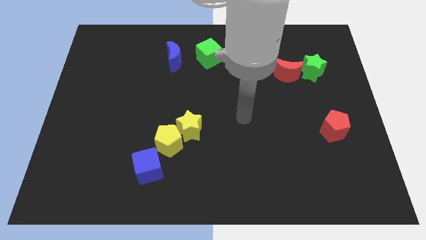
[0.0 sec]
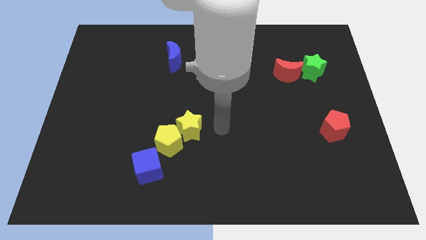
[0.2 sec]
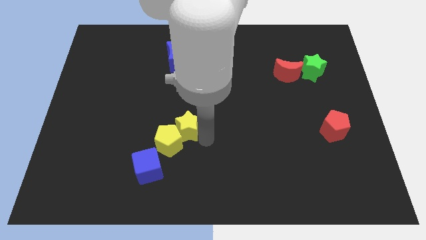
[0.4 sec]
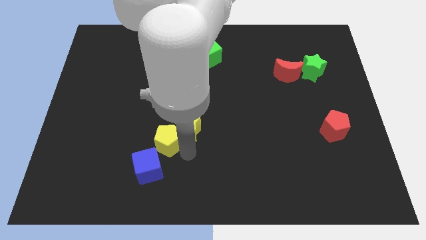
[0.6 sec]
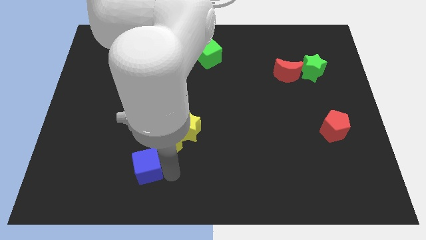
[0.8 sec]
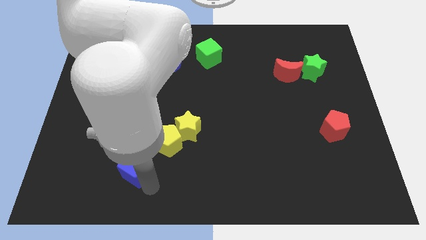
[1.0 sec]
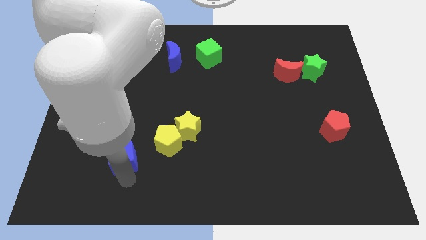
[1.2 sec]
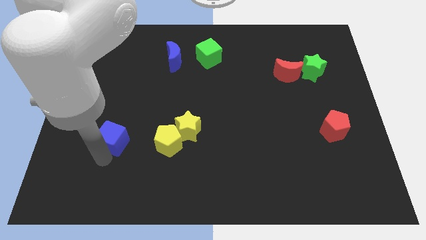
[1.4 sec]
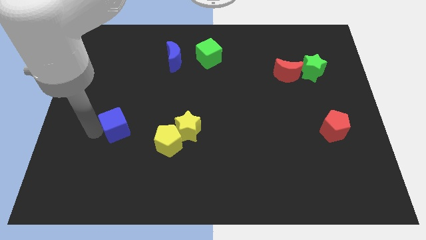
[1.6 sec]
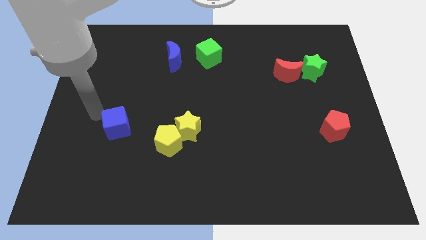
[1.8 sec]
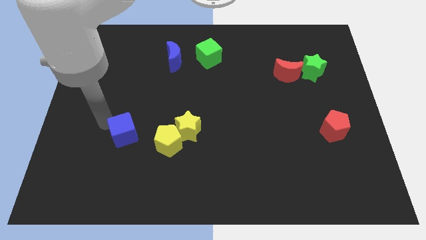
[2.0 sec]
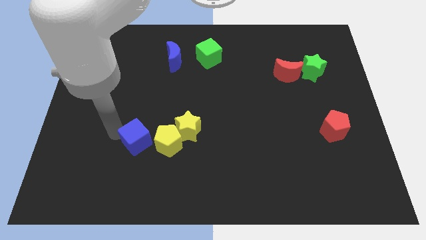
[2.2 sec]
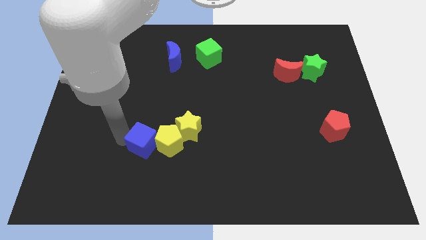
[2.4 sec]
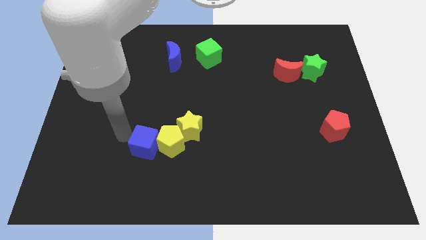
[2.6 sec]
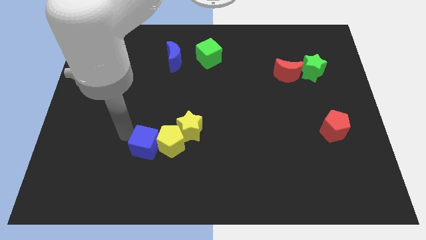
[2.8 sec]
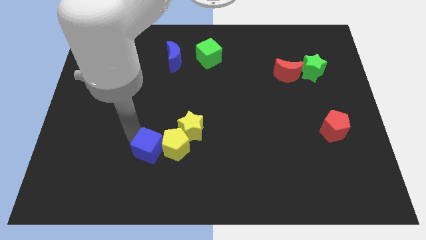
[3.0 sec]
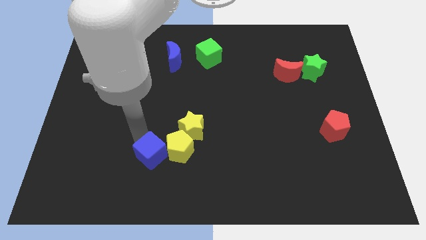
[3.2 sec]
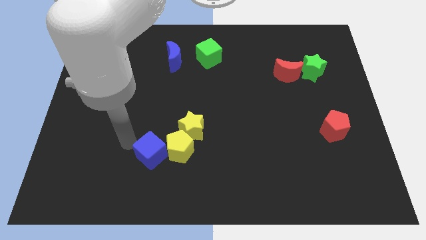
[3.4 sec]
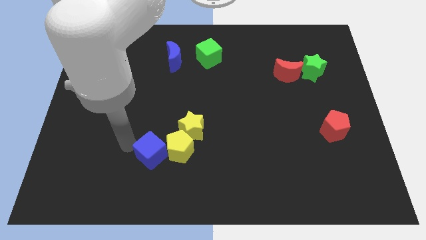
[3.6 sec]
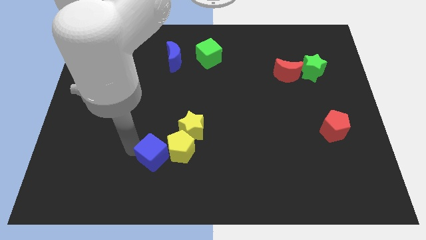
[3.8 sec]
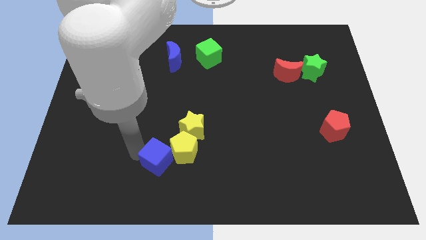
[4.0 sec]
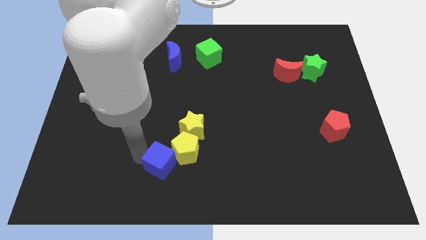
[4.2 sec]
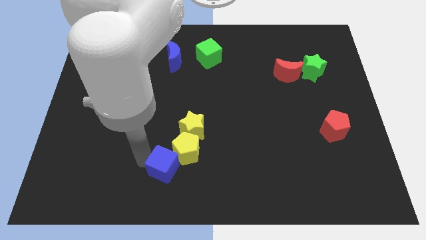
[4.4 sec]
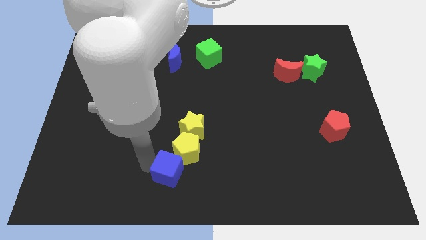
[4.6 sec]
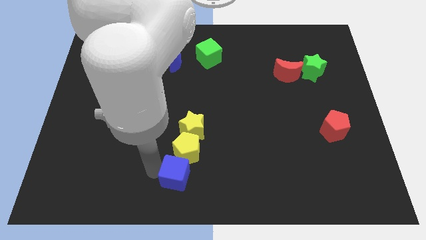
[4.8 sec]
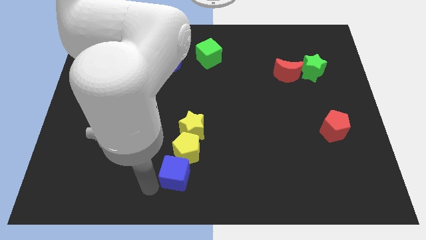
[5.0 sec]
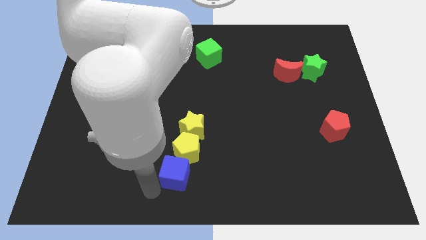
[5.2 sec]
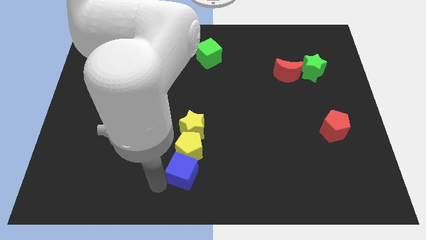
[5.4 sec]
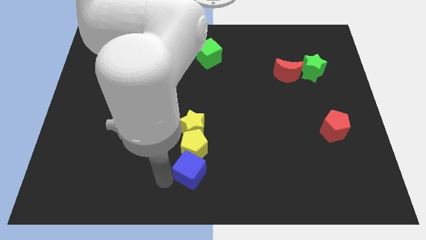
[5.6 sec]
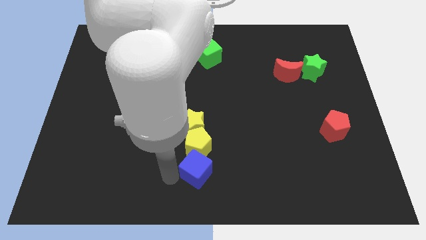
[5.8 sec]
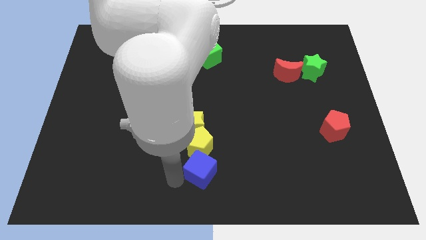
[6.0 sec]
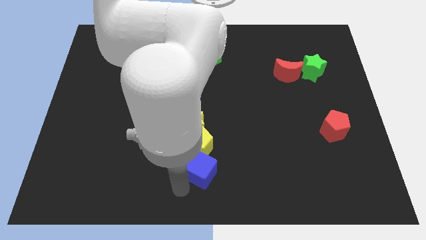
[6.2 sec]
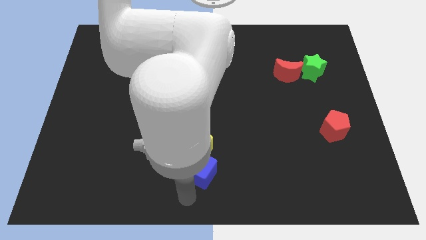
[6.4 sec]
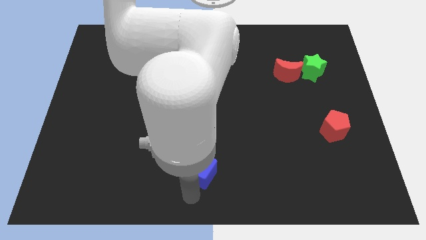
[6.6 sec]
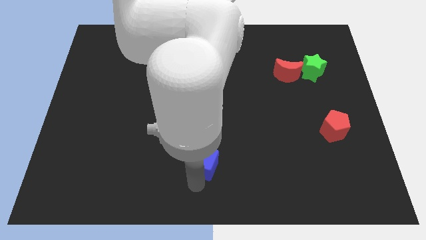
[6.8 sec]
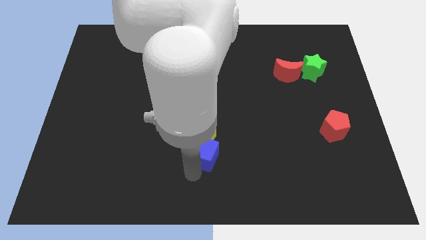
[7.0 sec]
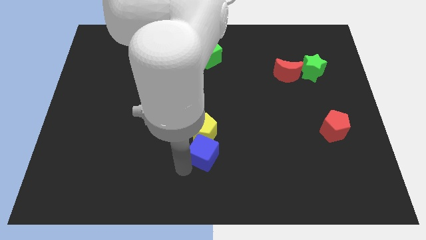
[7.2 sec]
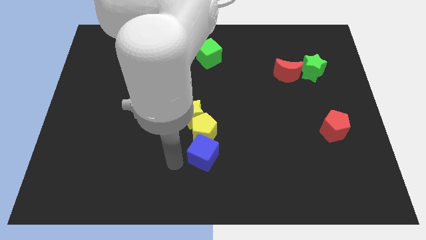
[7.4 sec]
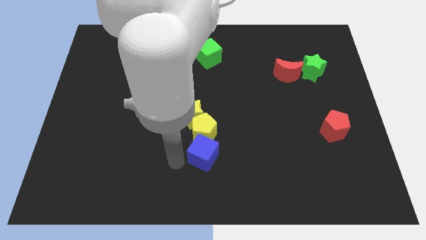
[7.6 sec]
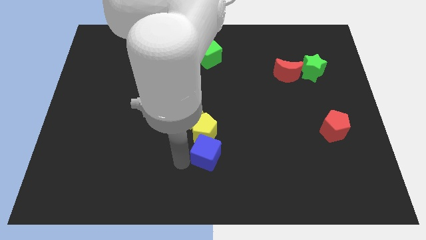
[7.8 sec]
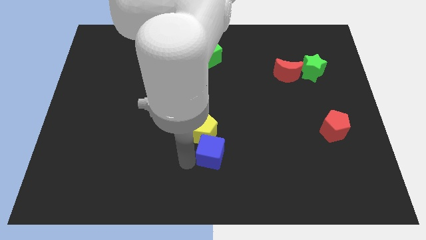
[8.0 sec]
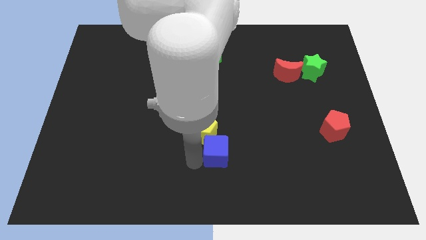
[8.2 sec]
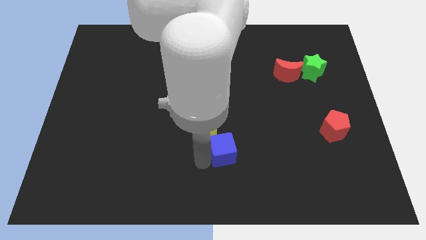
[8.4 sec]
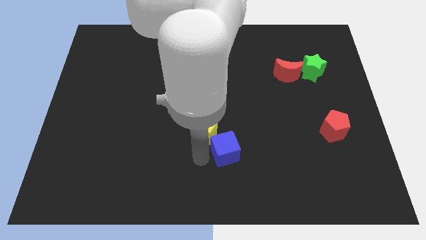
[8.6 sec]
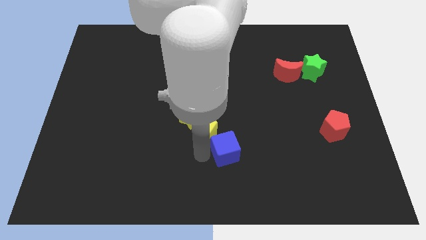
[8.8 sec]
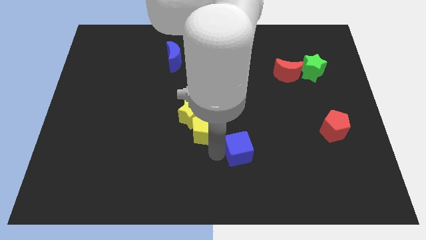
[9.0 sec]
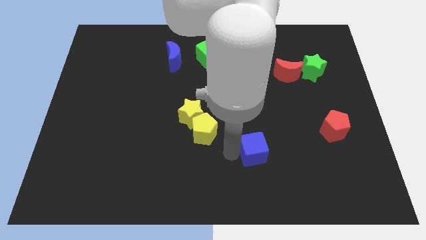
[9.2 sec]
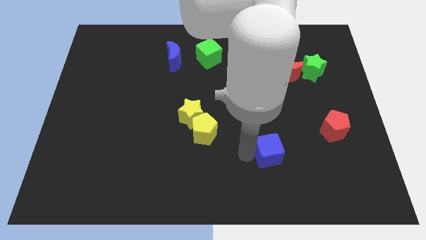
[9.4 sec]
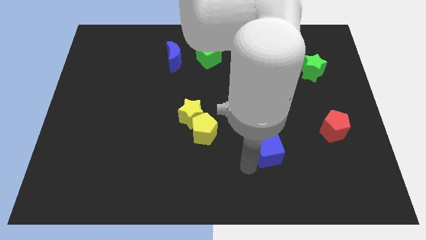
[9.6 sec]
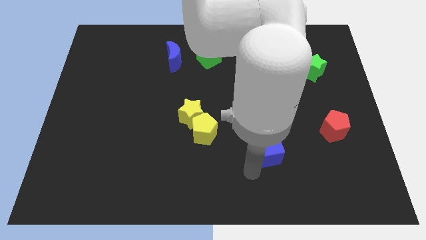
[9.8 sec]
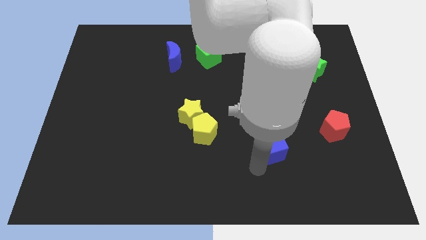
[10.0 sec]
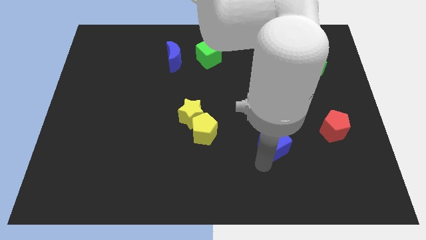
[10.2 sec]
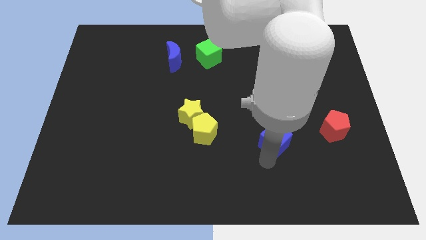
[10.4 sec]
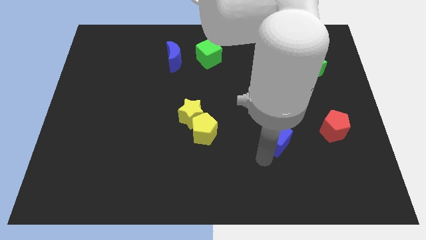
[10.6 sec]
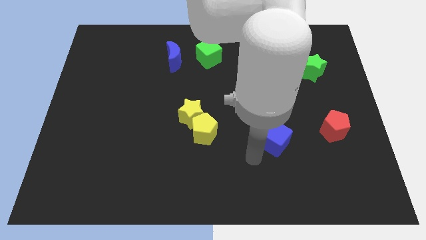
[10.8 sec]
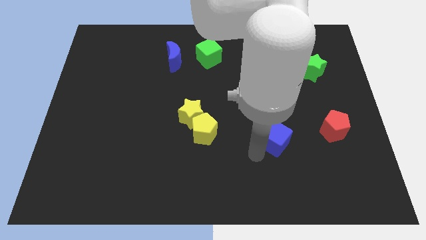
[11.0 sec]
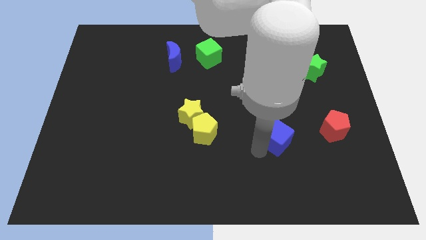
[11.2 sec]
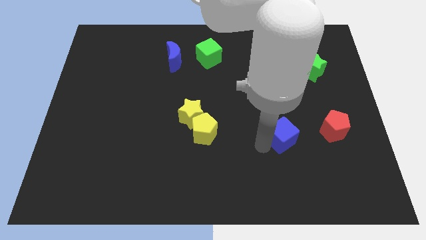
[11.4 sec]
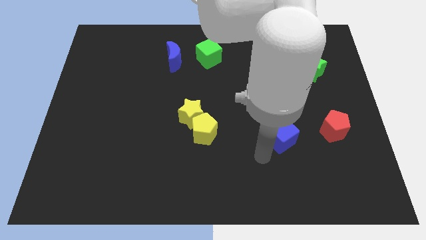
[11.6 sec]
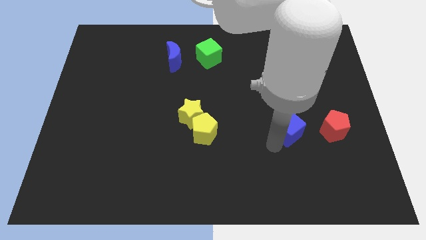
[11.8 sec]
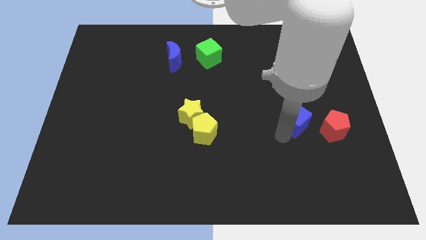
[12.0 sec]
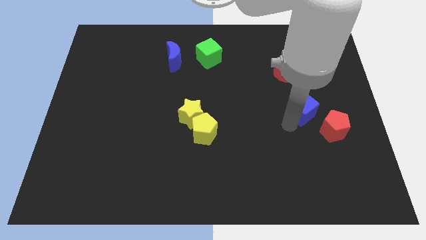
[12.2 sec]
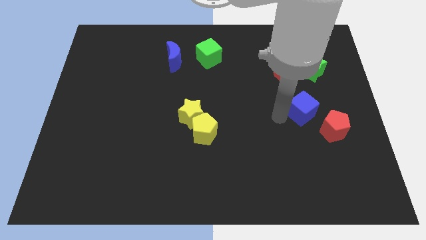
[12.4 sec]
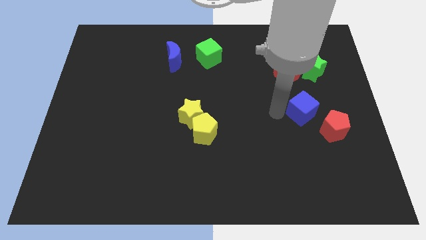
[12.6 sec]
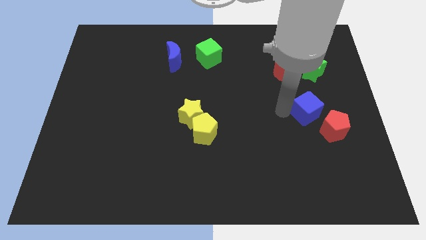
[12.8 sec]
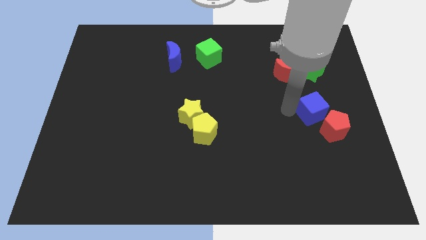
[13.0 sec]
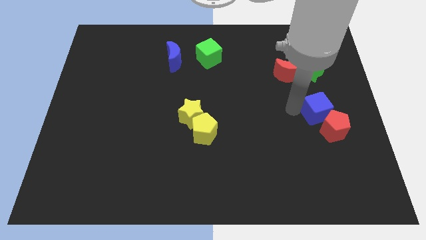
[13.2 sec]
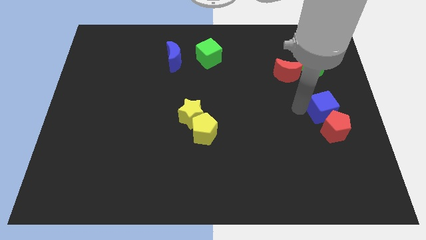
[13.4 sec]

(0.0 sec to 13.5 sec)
put the blue cube to the center right

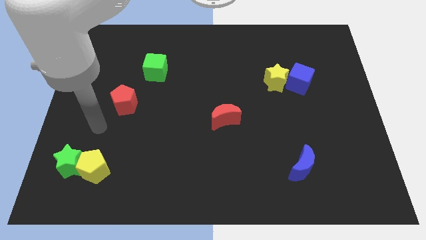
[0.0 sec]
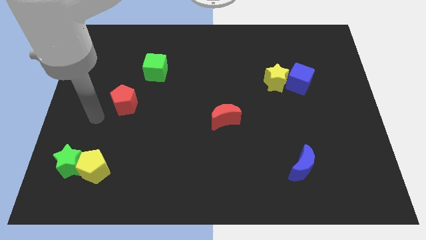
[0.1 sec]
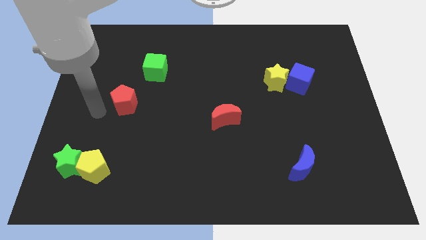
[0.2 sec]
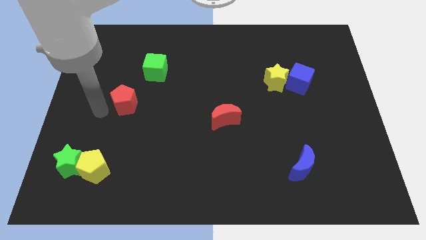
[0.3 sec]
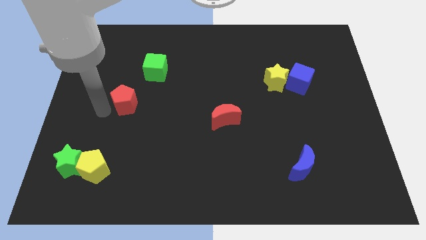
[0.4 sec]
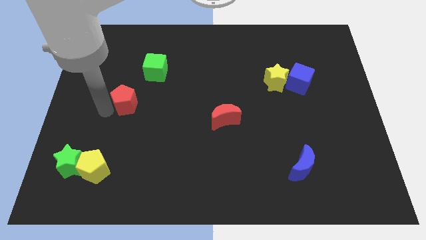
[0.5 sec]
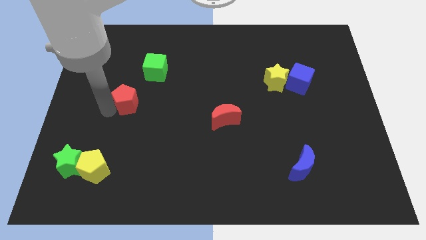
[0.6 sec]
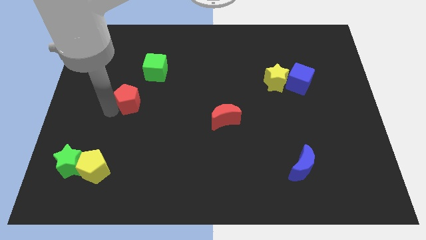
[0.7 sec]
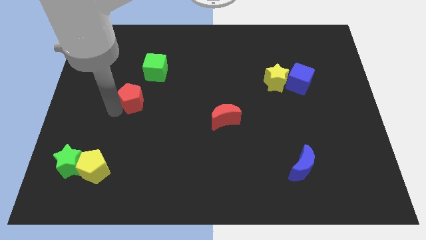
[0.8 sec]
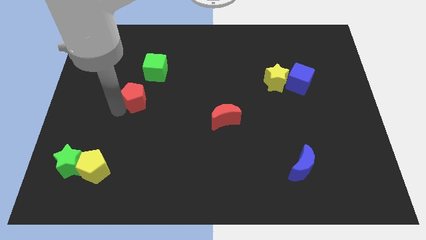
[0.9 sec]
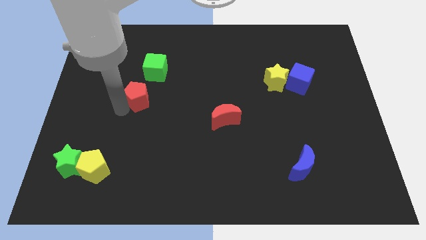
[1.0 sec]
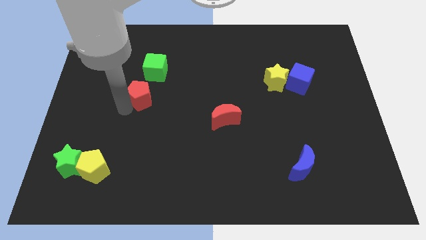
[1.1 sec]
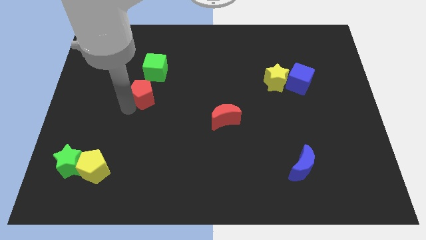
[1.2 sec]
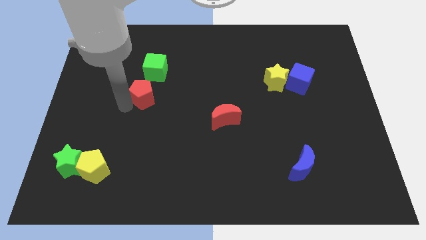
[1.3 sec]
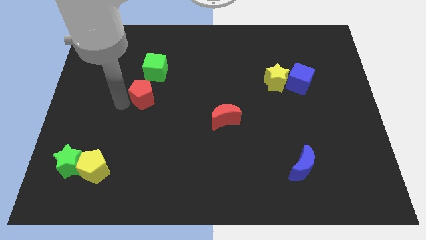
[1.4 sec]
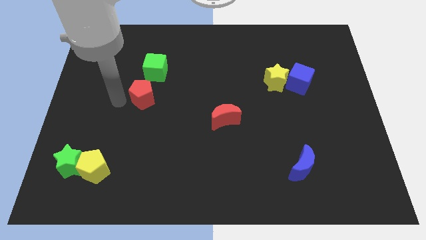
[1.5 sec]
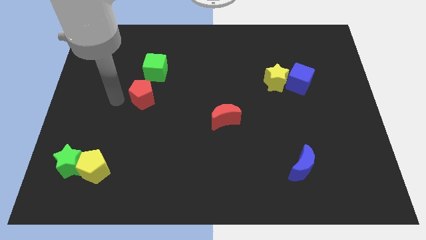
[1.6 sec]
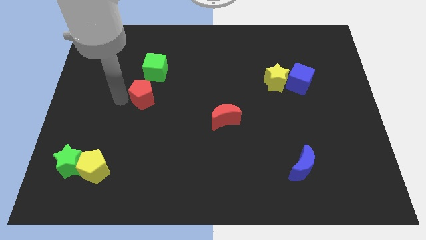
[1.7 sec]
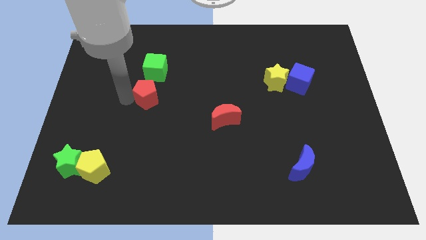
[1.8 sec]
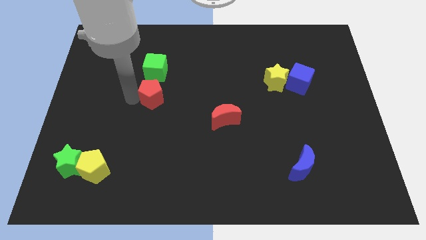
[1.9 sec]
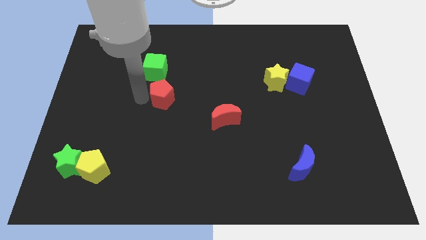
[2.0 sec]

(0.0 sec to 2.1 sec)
slide the red pentagon to the middle of the board
